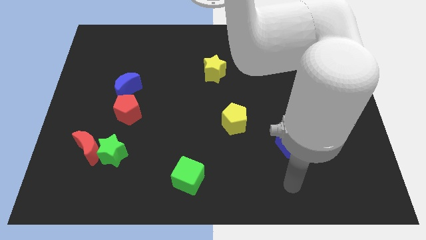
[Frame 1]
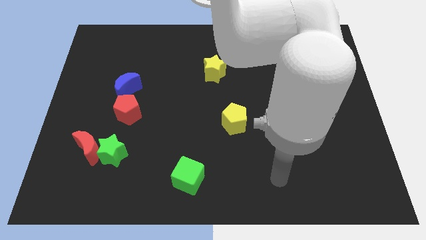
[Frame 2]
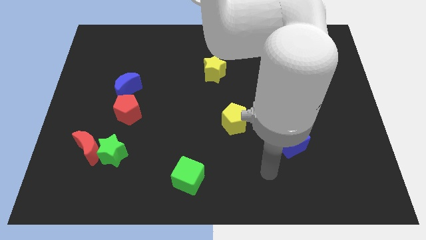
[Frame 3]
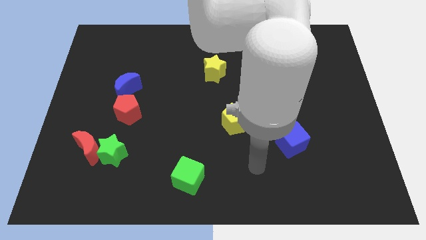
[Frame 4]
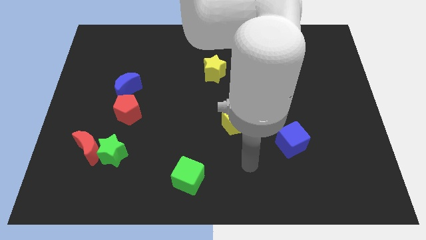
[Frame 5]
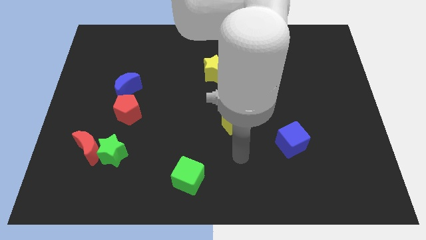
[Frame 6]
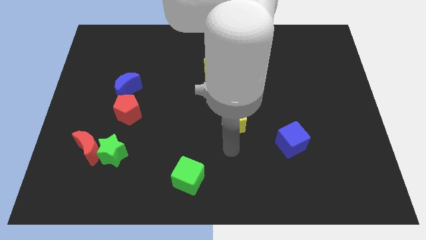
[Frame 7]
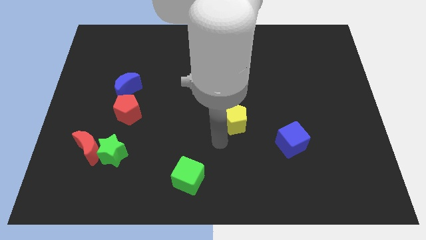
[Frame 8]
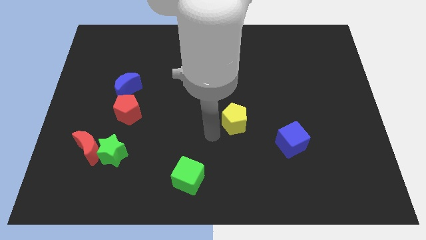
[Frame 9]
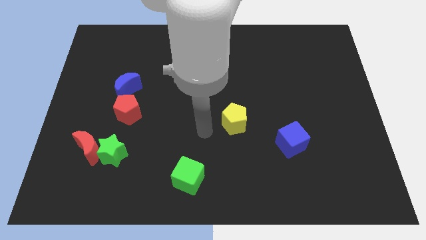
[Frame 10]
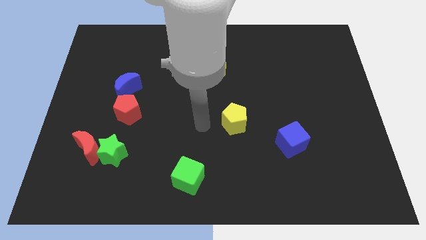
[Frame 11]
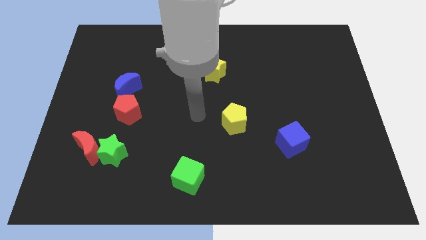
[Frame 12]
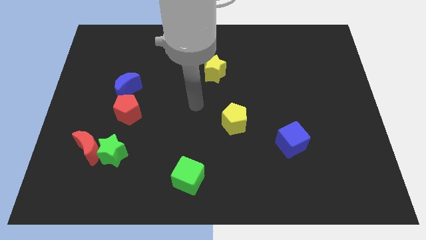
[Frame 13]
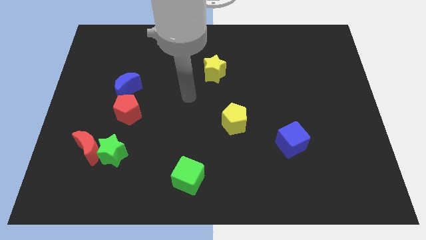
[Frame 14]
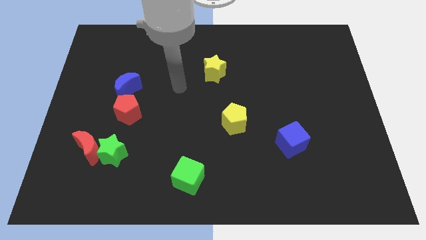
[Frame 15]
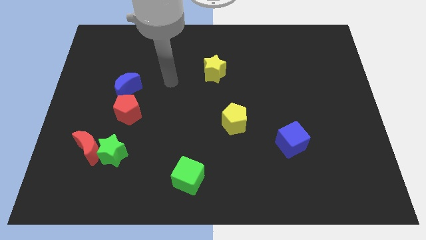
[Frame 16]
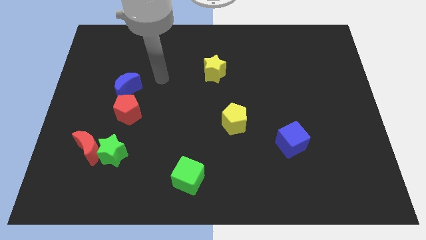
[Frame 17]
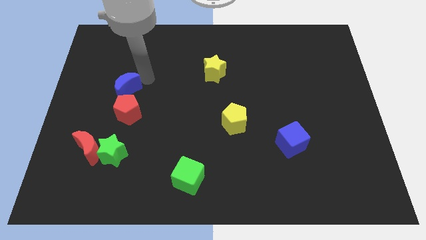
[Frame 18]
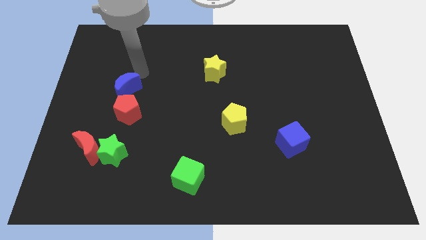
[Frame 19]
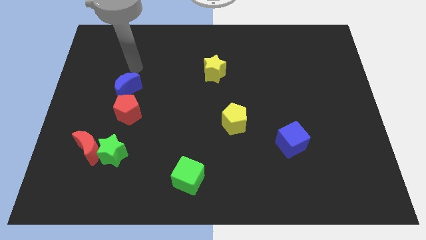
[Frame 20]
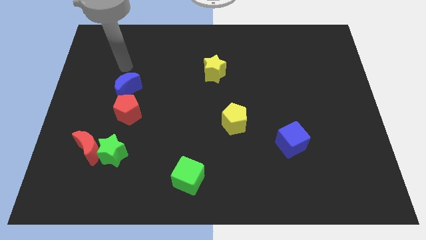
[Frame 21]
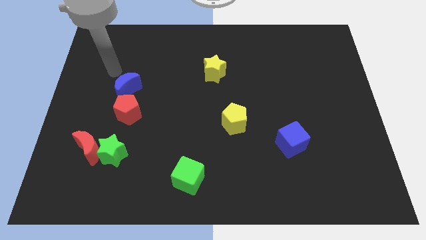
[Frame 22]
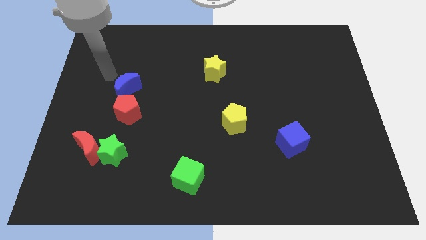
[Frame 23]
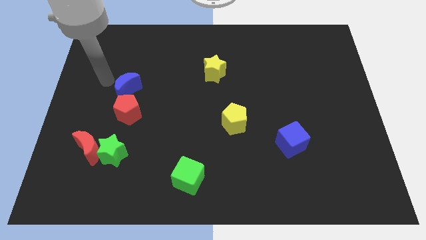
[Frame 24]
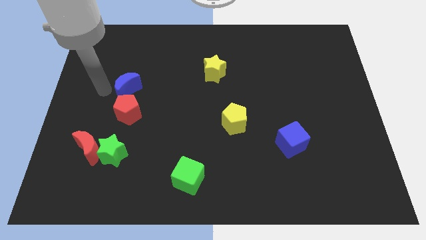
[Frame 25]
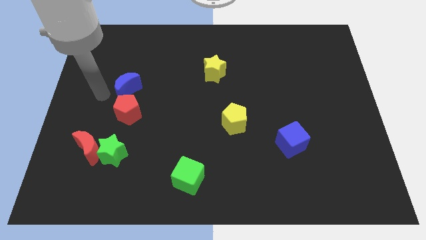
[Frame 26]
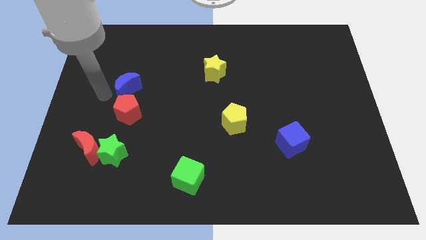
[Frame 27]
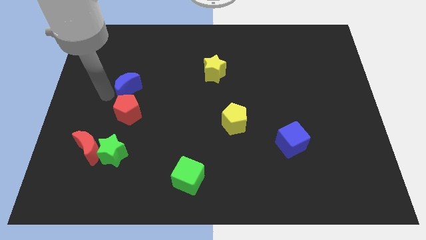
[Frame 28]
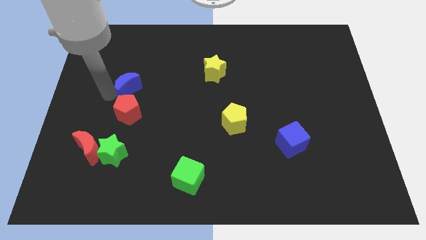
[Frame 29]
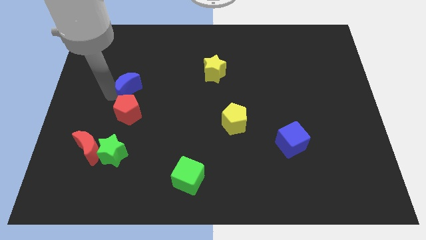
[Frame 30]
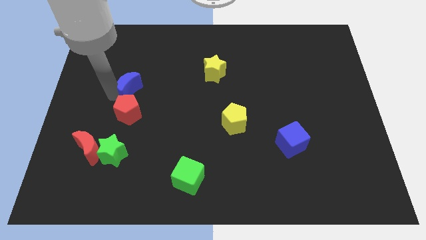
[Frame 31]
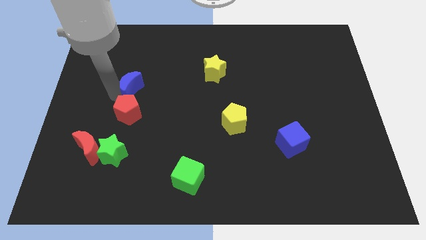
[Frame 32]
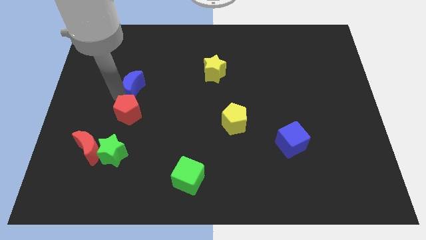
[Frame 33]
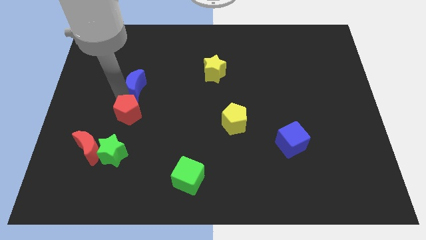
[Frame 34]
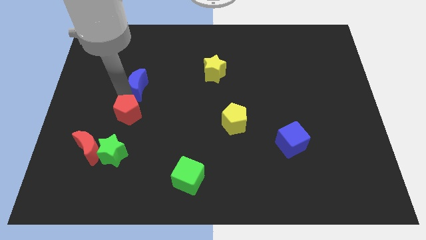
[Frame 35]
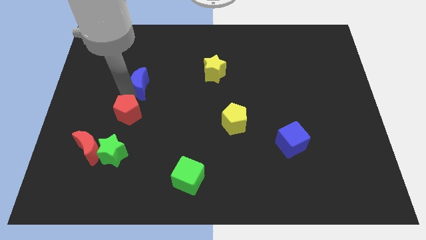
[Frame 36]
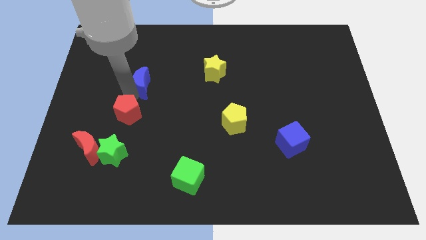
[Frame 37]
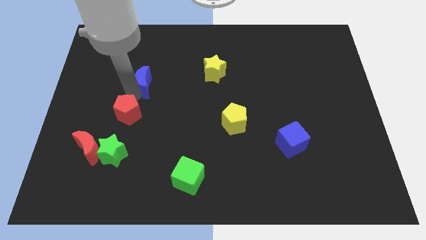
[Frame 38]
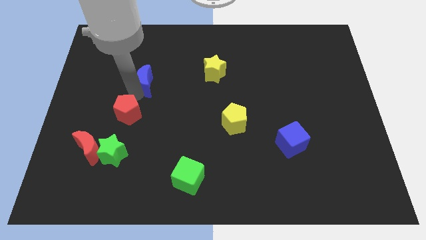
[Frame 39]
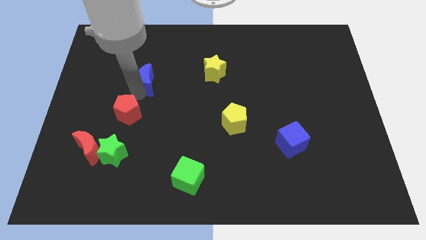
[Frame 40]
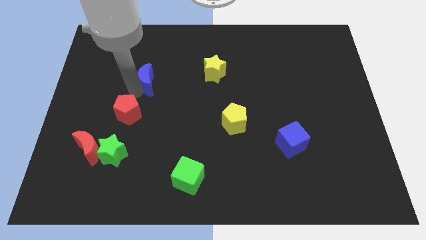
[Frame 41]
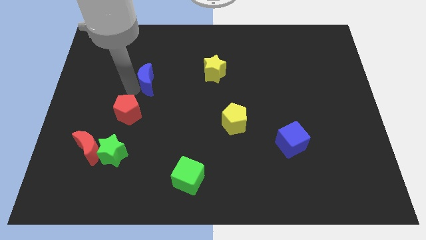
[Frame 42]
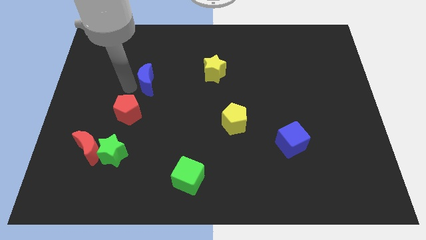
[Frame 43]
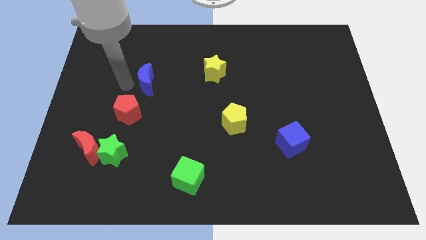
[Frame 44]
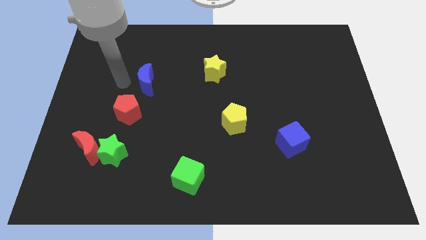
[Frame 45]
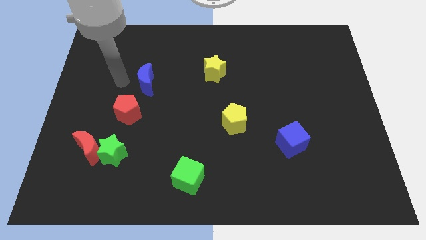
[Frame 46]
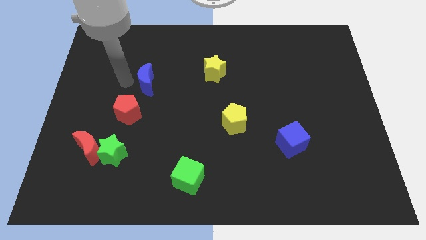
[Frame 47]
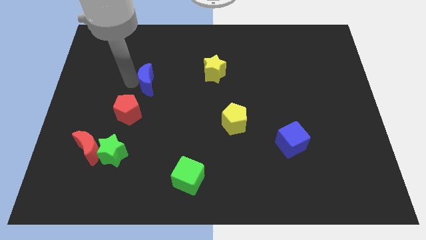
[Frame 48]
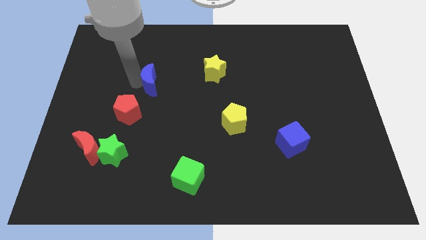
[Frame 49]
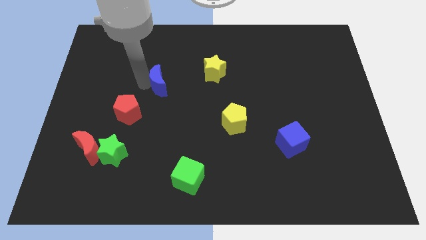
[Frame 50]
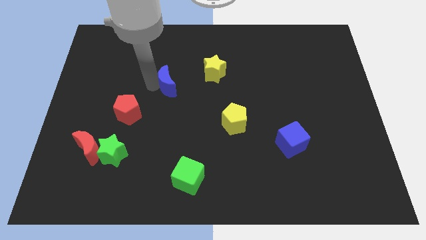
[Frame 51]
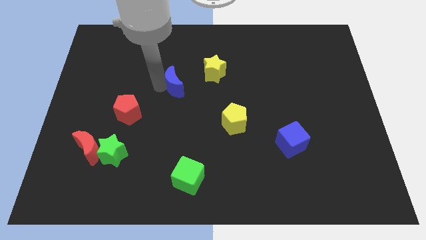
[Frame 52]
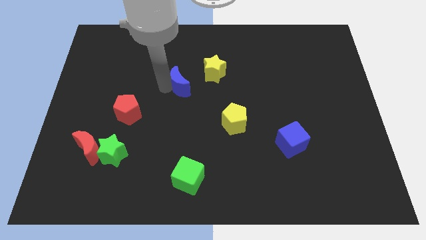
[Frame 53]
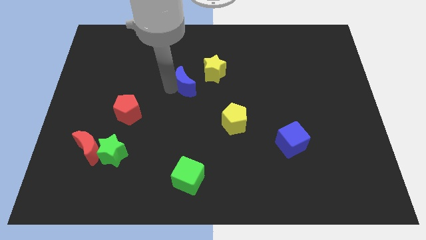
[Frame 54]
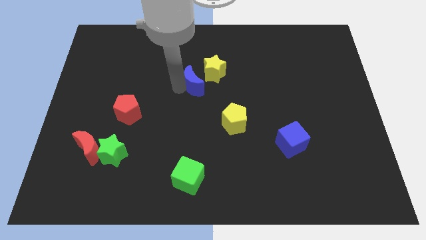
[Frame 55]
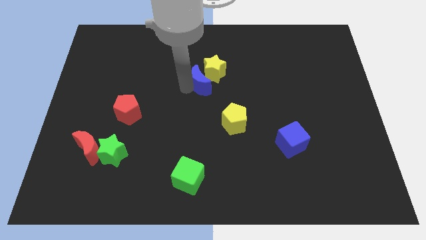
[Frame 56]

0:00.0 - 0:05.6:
slide the blue moon to the yellow star

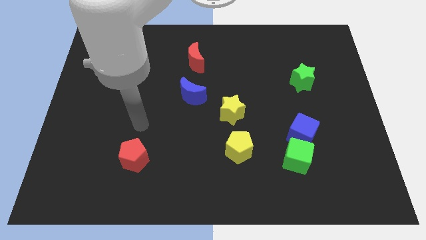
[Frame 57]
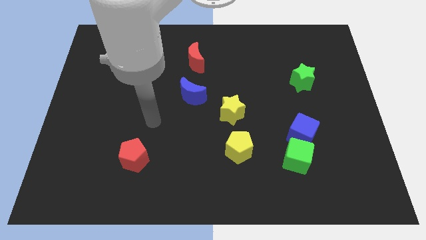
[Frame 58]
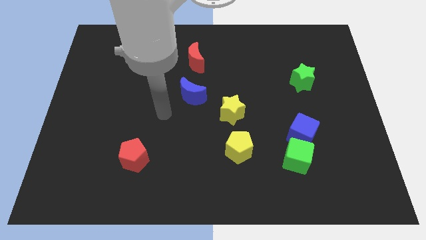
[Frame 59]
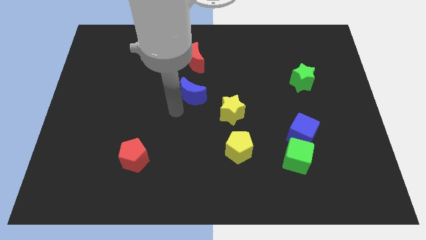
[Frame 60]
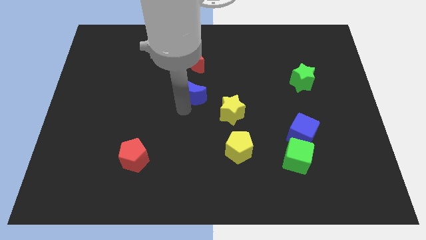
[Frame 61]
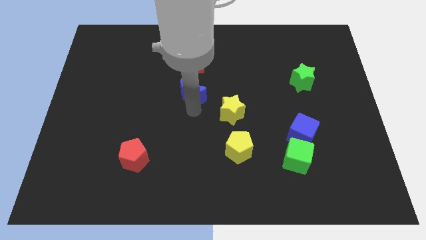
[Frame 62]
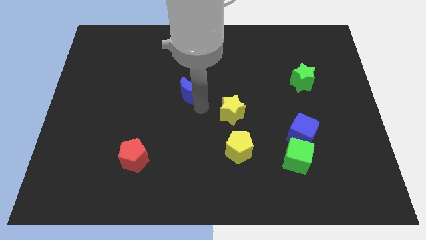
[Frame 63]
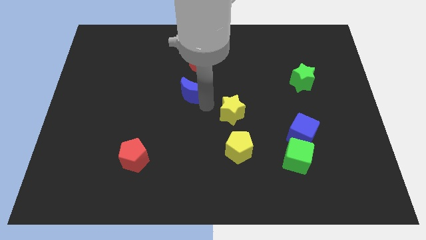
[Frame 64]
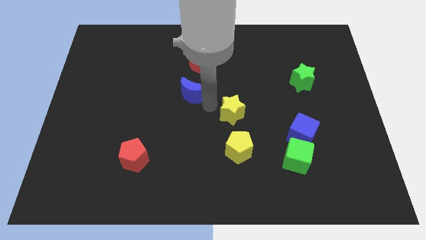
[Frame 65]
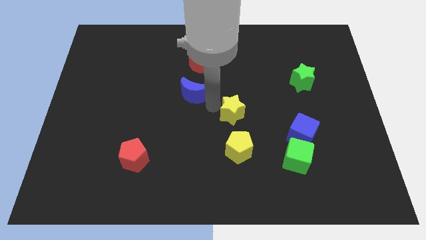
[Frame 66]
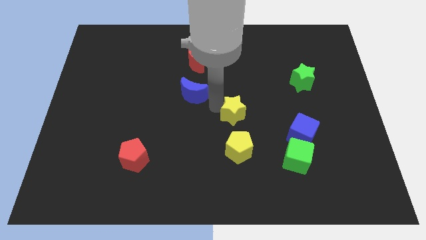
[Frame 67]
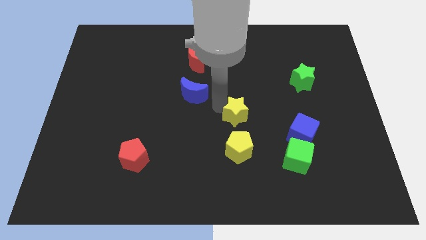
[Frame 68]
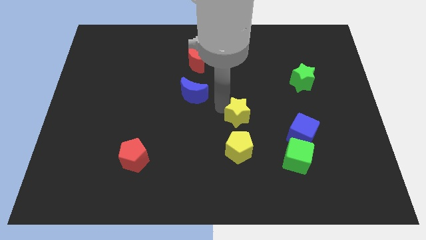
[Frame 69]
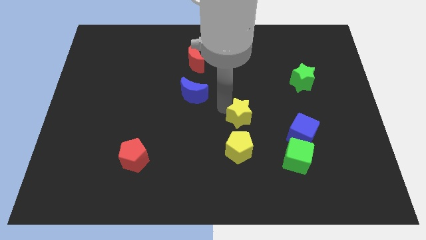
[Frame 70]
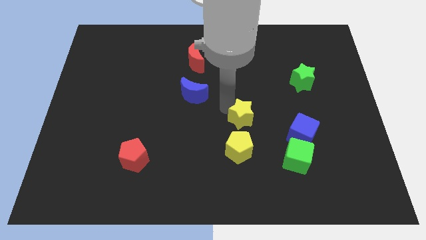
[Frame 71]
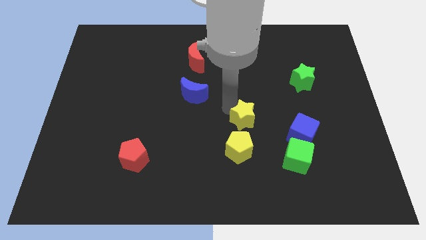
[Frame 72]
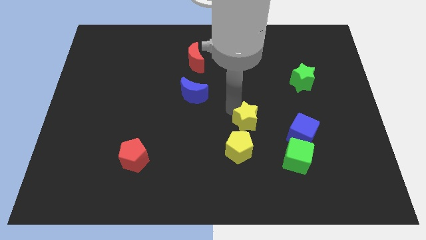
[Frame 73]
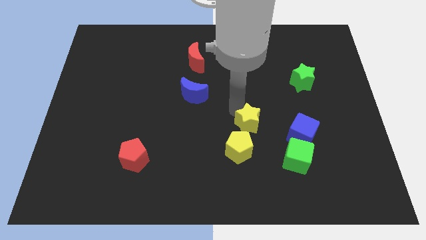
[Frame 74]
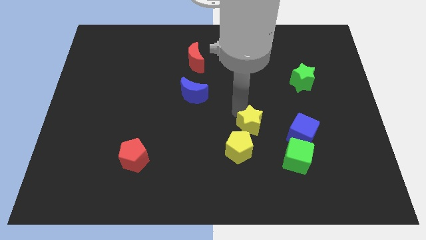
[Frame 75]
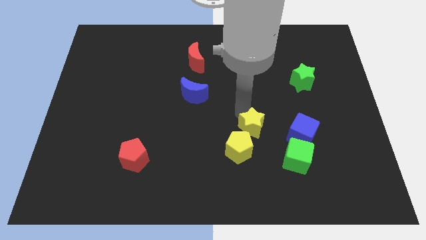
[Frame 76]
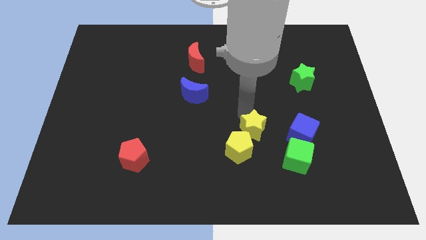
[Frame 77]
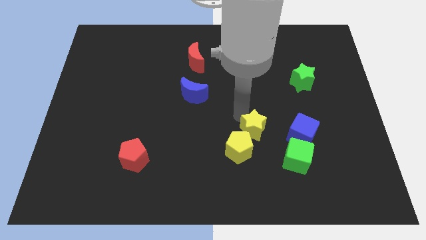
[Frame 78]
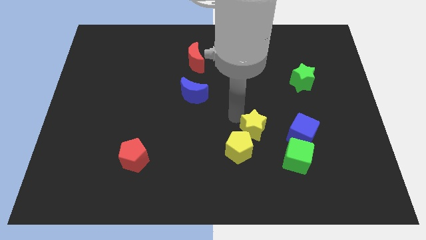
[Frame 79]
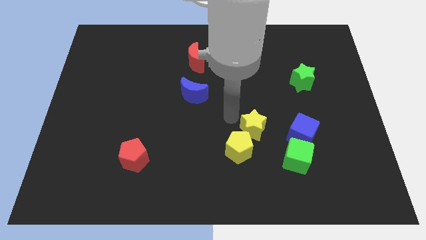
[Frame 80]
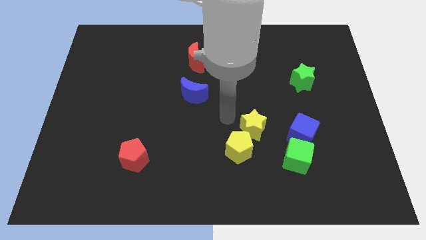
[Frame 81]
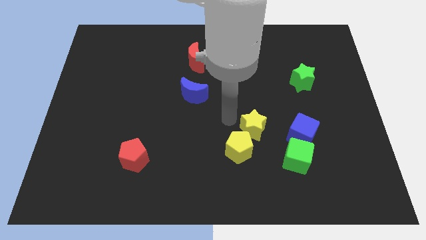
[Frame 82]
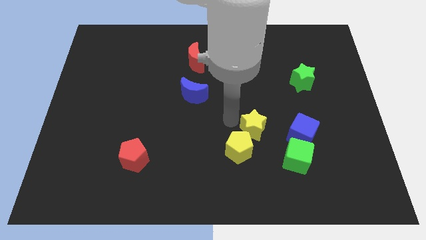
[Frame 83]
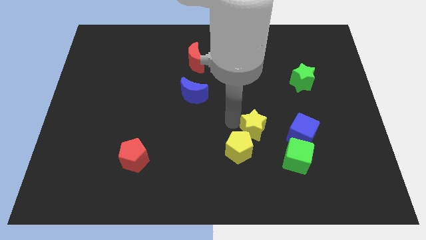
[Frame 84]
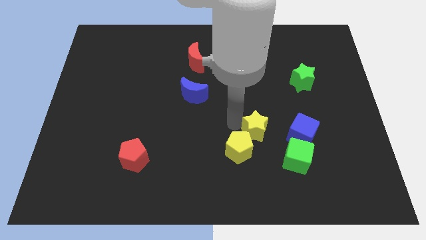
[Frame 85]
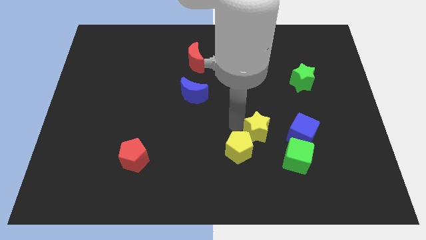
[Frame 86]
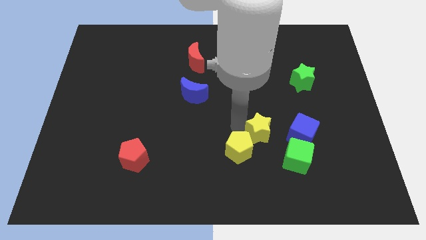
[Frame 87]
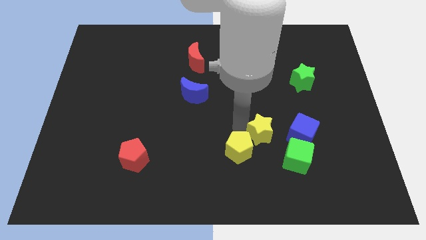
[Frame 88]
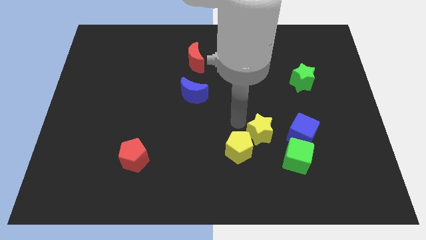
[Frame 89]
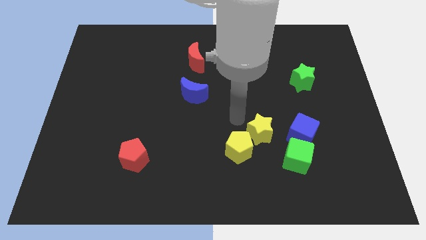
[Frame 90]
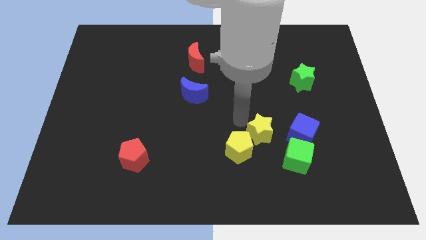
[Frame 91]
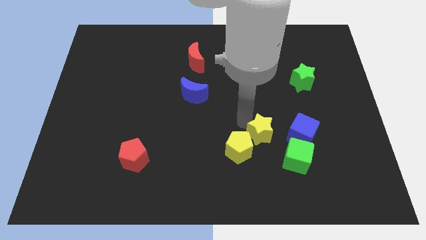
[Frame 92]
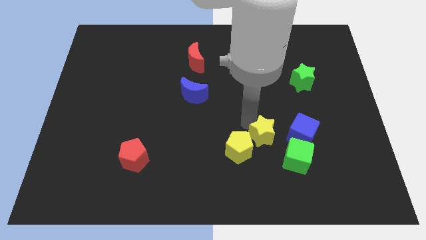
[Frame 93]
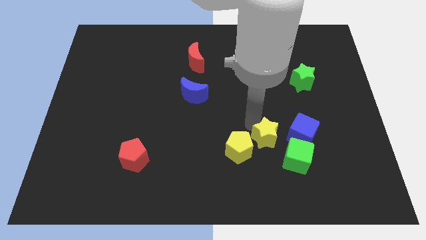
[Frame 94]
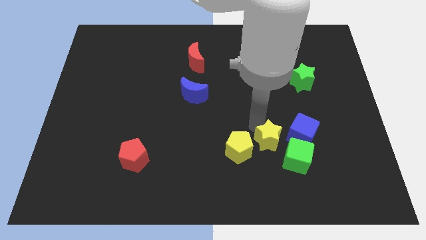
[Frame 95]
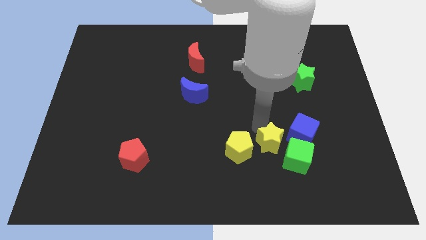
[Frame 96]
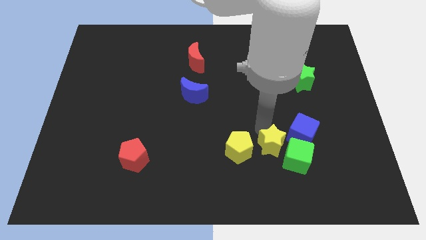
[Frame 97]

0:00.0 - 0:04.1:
slide the yellow star next to the green cube
